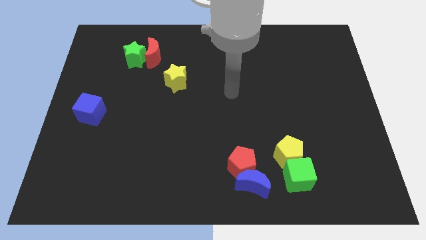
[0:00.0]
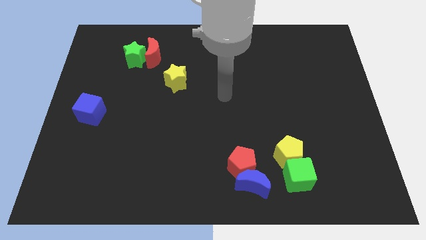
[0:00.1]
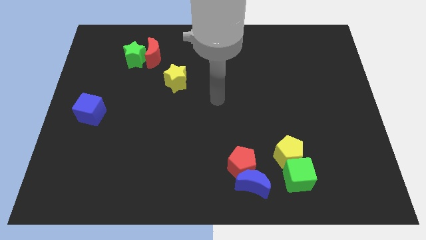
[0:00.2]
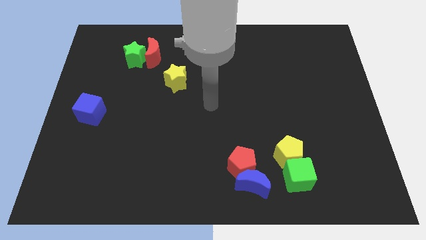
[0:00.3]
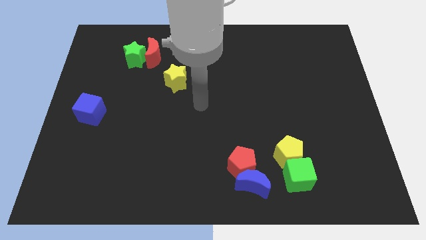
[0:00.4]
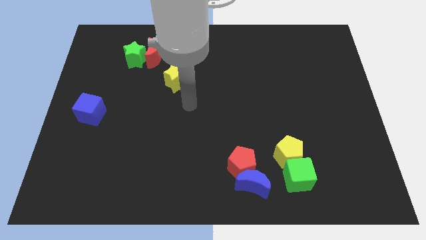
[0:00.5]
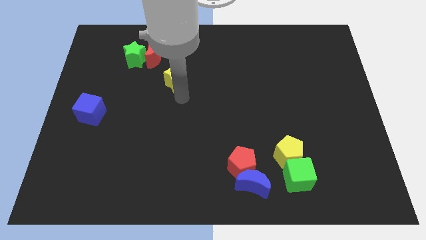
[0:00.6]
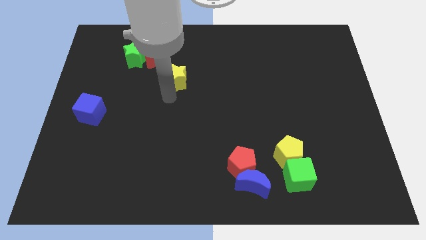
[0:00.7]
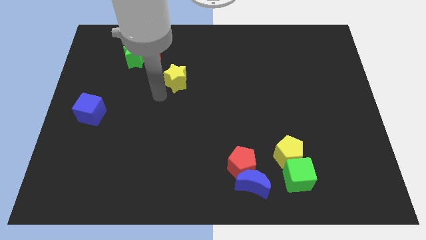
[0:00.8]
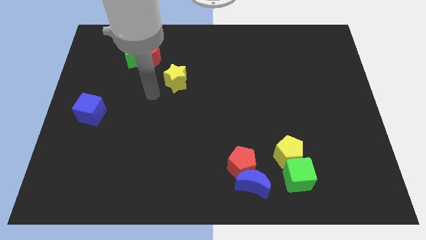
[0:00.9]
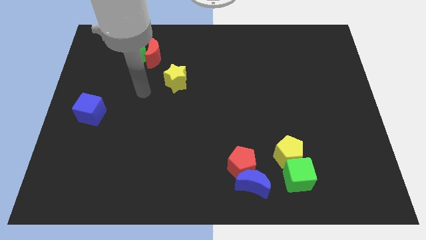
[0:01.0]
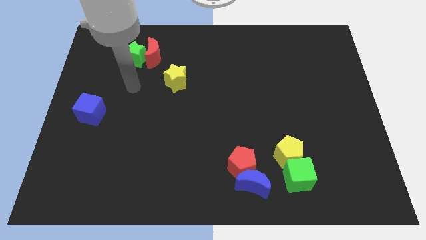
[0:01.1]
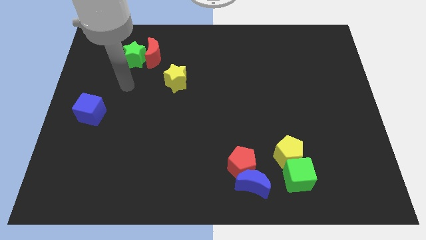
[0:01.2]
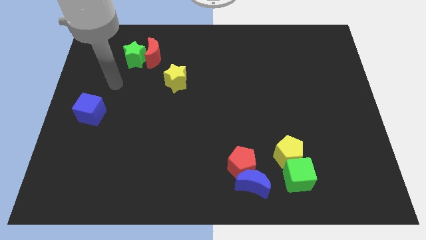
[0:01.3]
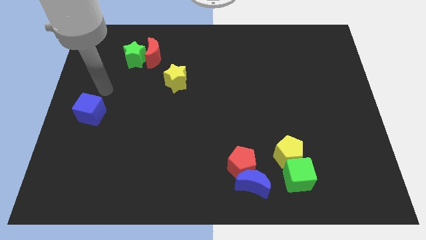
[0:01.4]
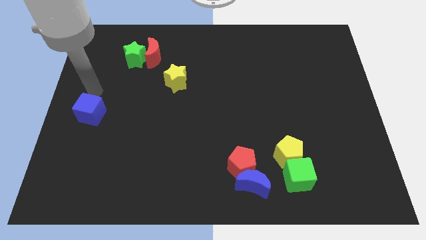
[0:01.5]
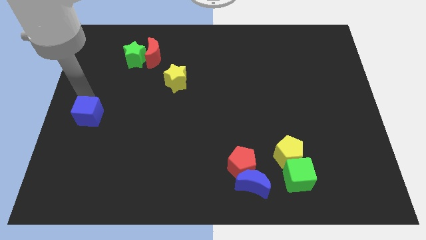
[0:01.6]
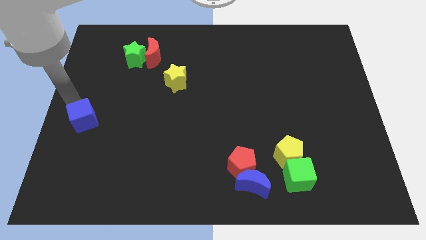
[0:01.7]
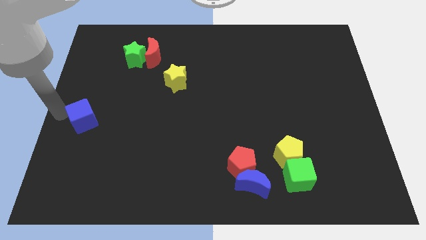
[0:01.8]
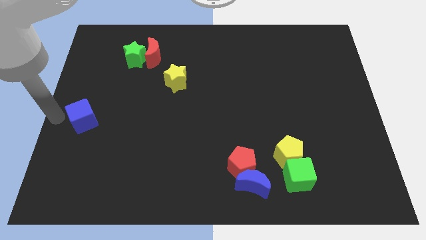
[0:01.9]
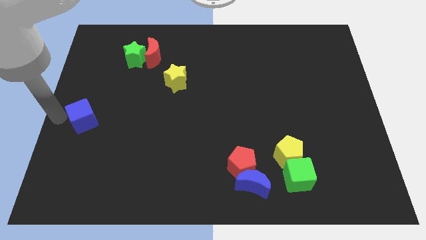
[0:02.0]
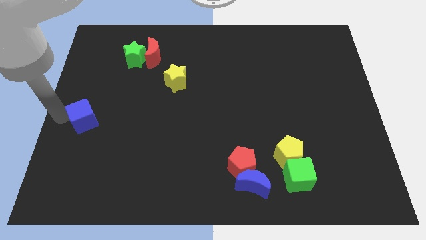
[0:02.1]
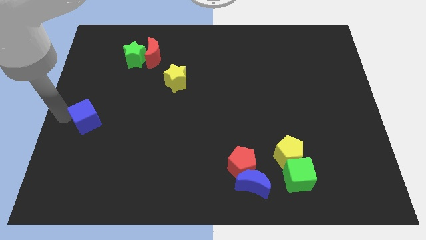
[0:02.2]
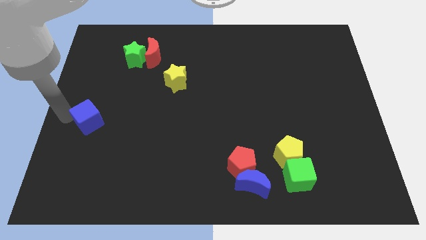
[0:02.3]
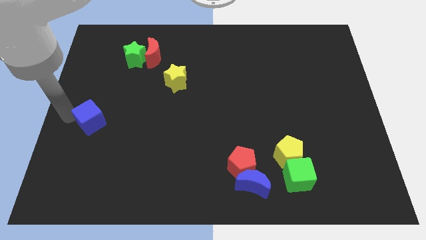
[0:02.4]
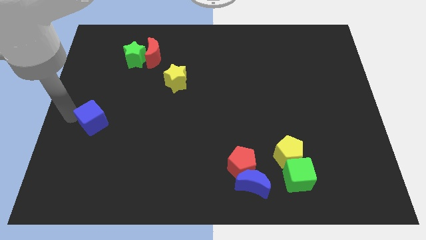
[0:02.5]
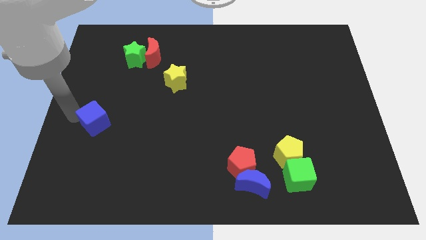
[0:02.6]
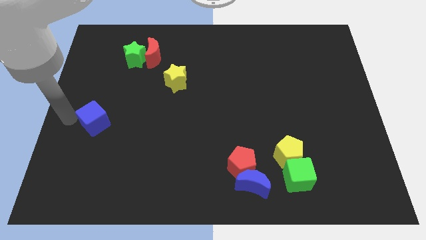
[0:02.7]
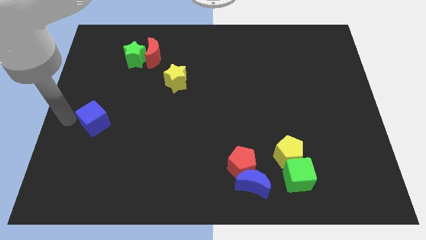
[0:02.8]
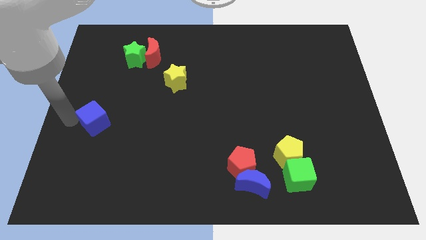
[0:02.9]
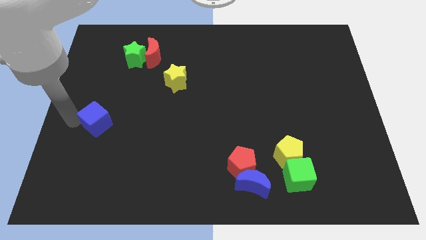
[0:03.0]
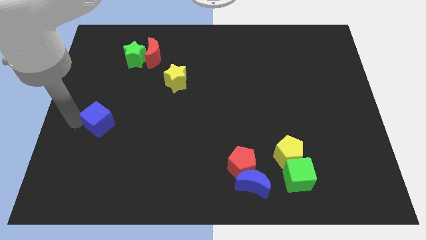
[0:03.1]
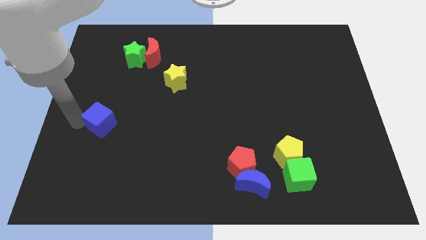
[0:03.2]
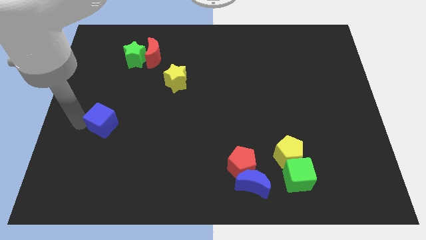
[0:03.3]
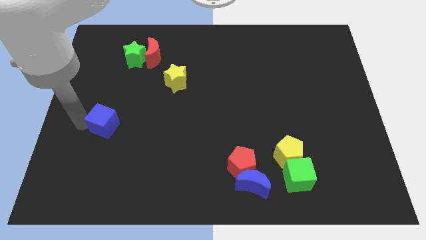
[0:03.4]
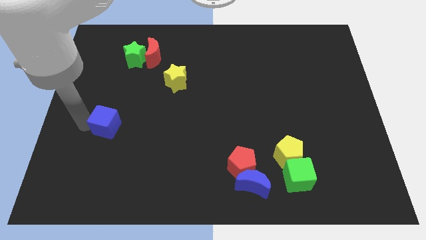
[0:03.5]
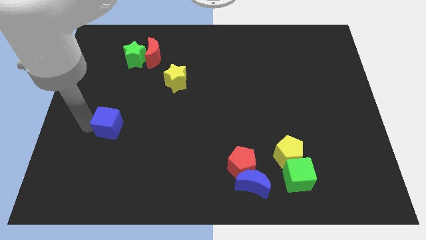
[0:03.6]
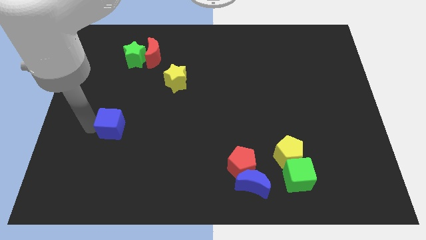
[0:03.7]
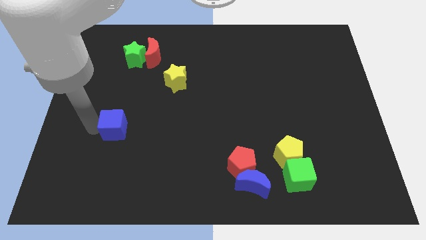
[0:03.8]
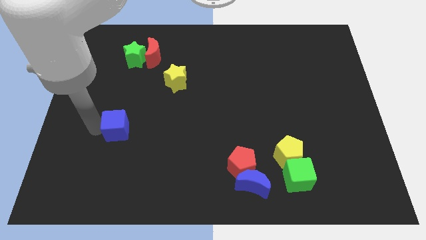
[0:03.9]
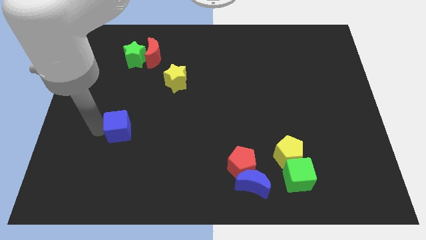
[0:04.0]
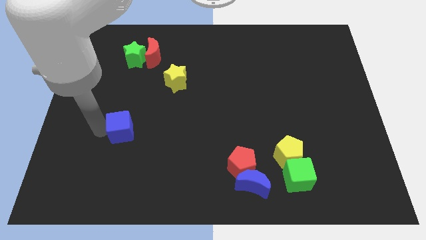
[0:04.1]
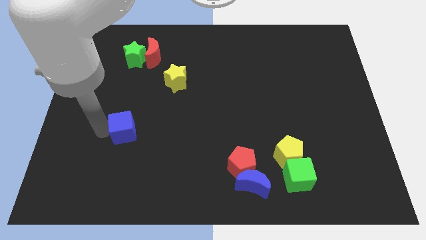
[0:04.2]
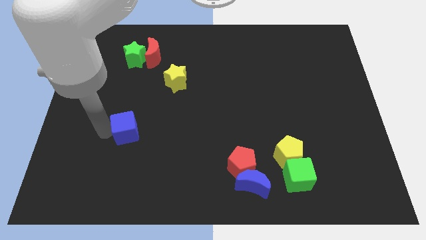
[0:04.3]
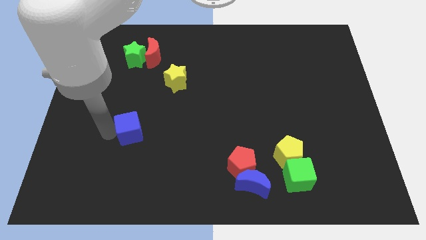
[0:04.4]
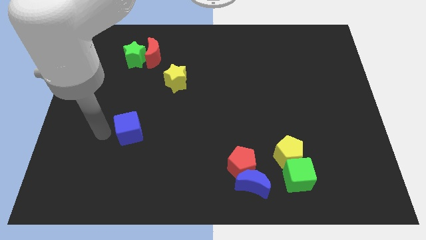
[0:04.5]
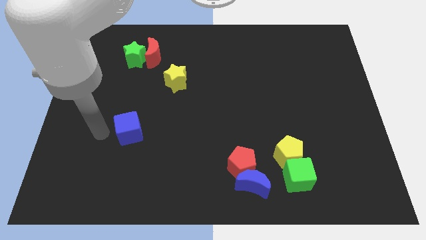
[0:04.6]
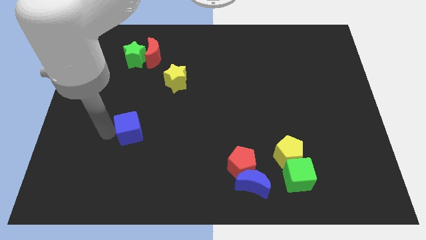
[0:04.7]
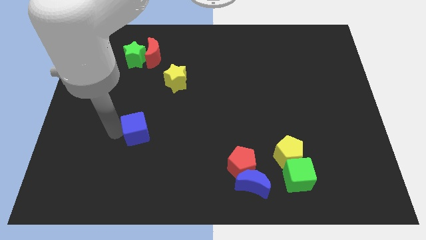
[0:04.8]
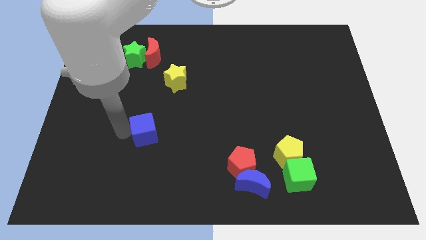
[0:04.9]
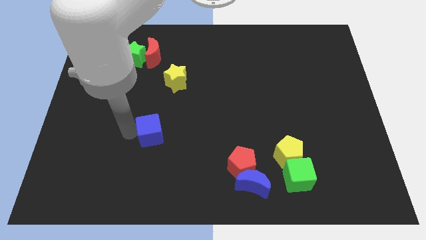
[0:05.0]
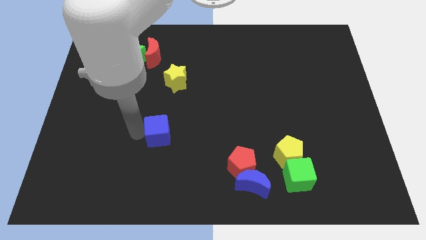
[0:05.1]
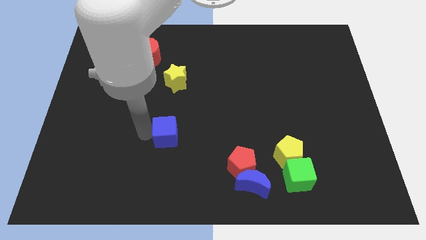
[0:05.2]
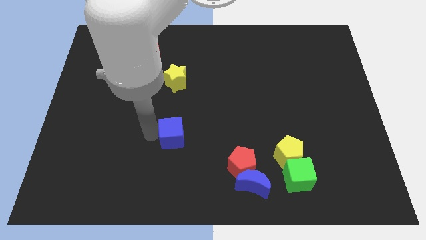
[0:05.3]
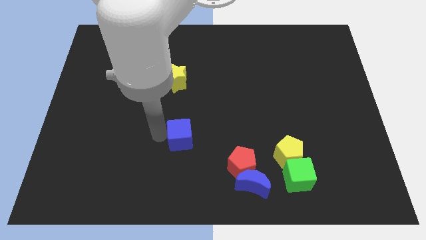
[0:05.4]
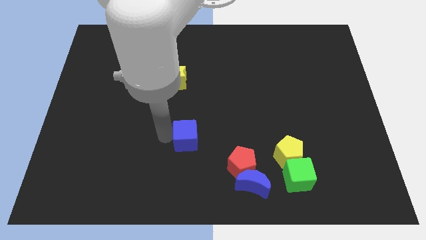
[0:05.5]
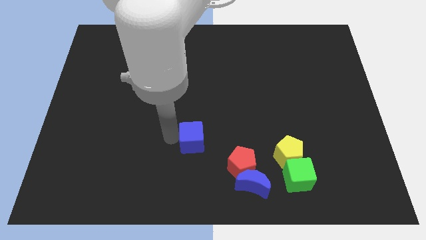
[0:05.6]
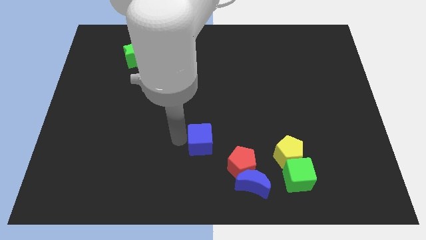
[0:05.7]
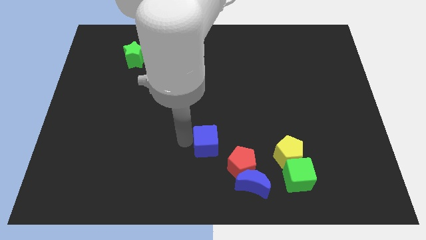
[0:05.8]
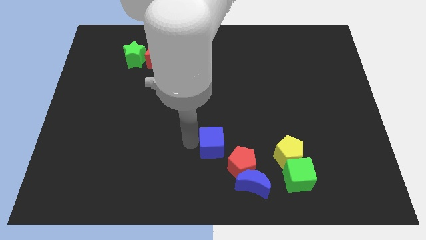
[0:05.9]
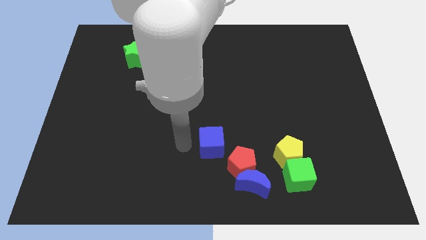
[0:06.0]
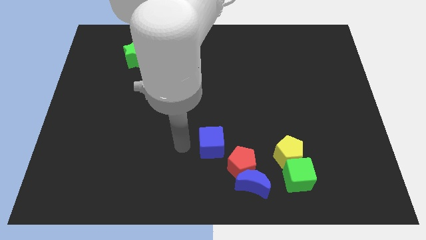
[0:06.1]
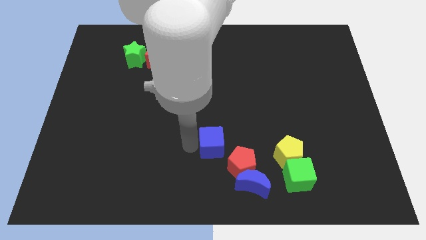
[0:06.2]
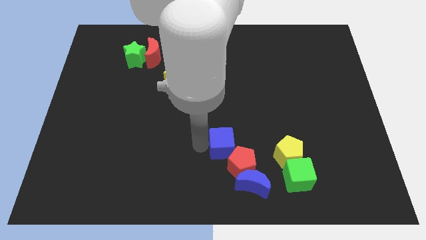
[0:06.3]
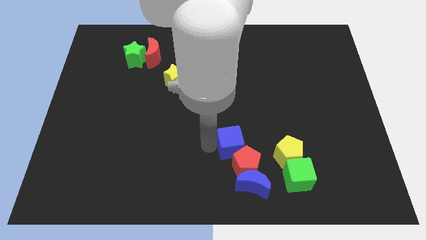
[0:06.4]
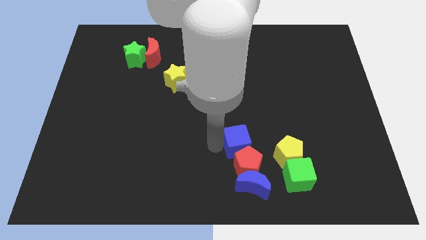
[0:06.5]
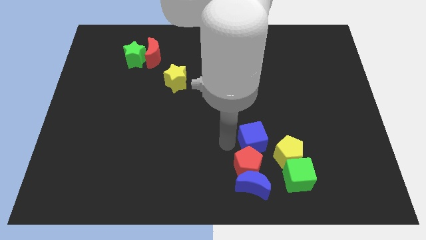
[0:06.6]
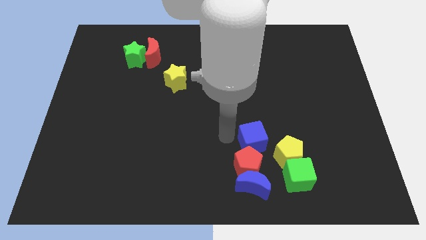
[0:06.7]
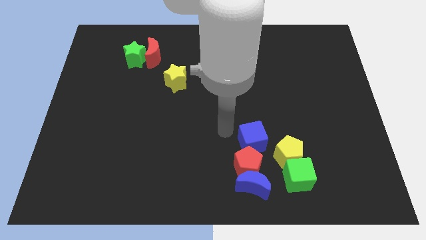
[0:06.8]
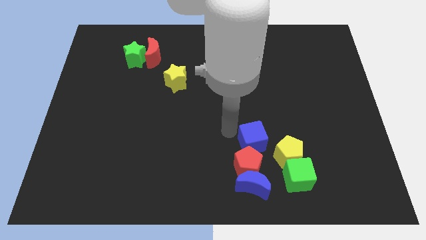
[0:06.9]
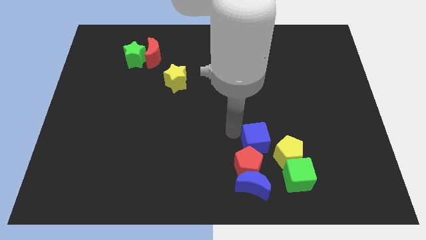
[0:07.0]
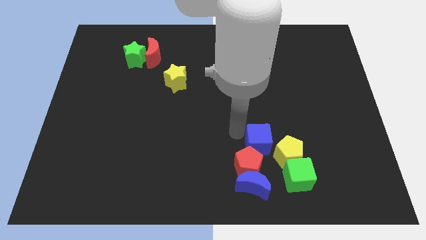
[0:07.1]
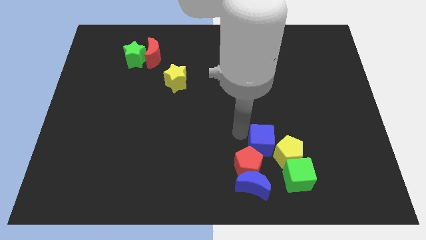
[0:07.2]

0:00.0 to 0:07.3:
put the blue cube towards the yellow pentagon
